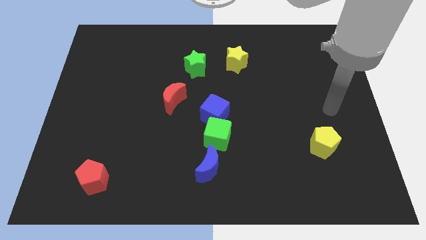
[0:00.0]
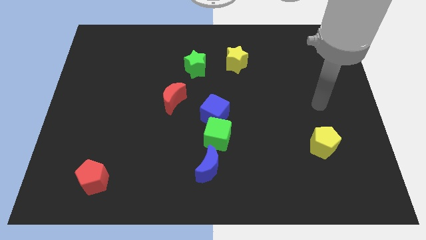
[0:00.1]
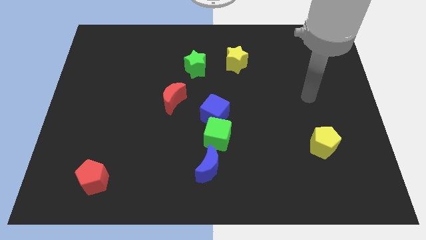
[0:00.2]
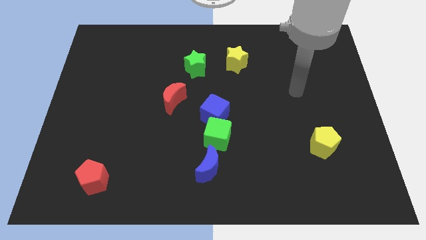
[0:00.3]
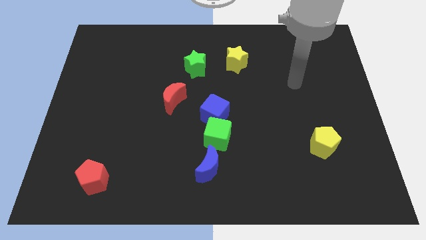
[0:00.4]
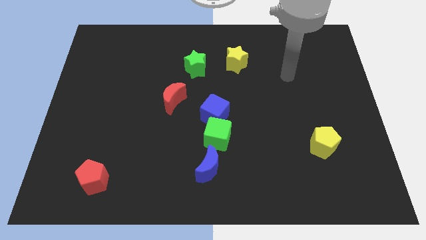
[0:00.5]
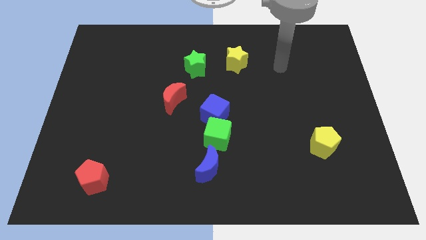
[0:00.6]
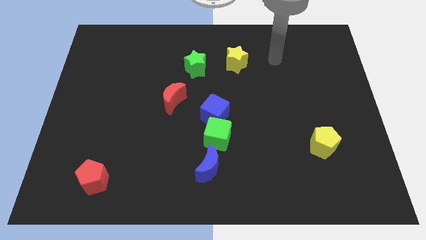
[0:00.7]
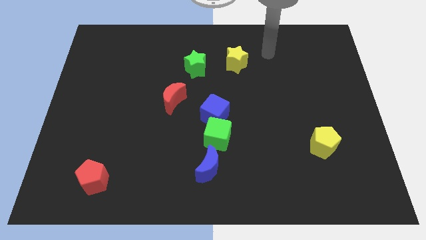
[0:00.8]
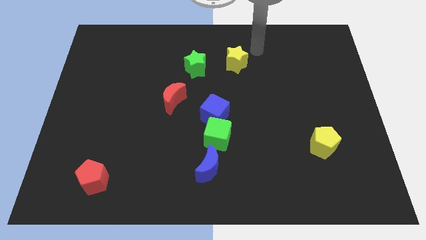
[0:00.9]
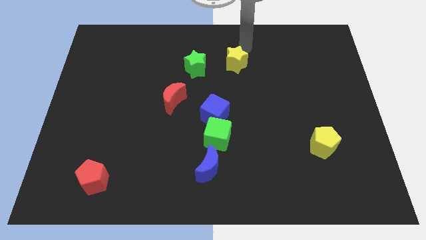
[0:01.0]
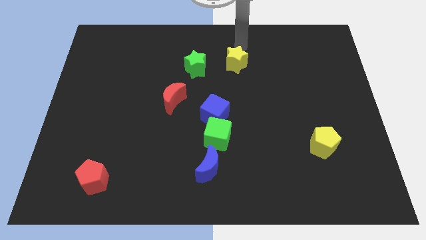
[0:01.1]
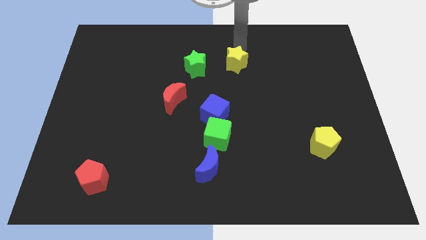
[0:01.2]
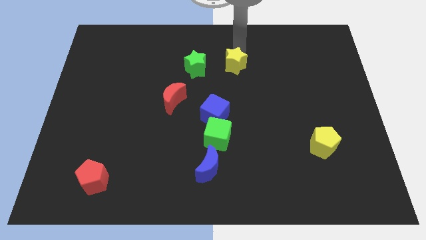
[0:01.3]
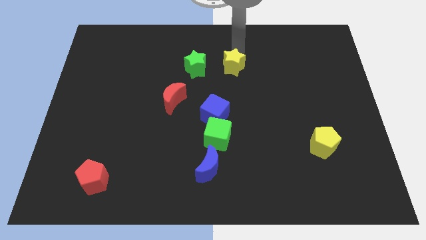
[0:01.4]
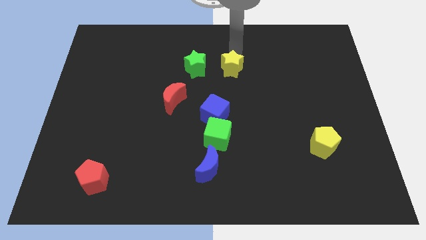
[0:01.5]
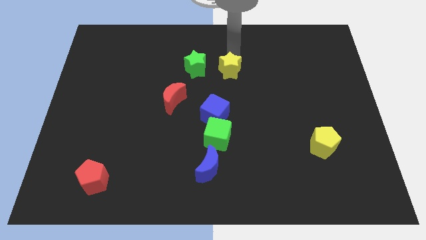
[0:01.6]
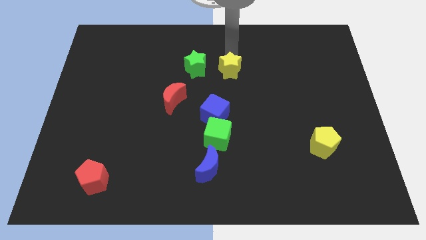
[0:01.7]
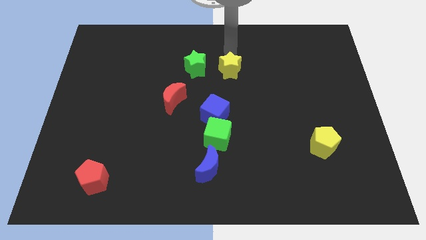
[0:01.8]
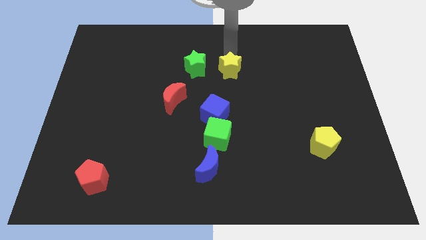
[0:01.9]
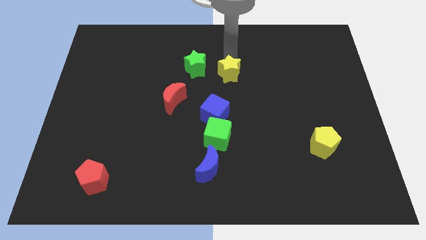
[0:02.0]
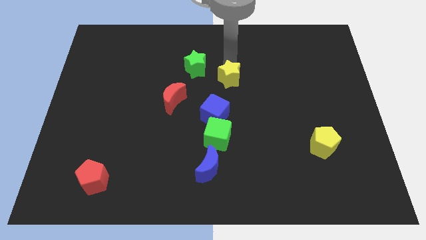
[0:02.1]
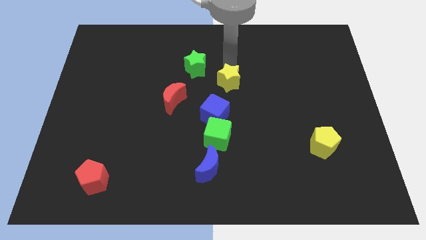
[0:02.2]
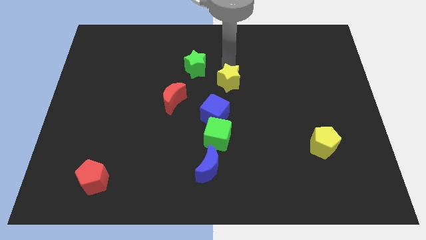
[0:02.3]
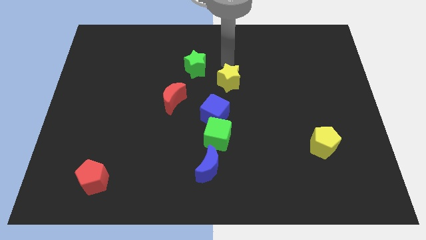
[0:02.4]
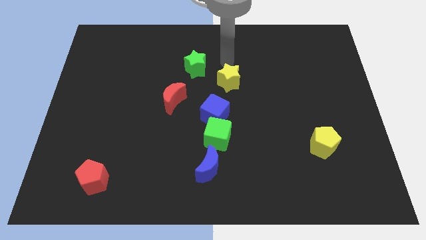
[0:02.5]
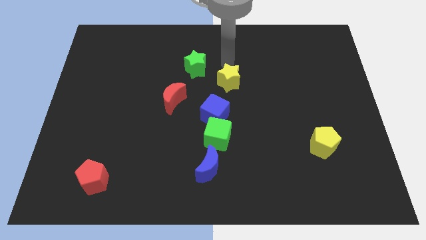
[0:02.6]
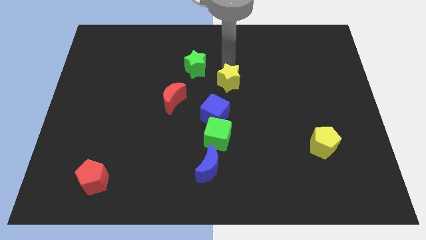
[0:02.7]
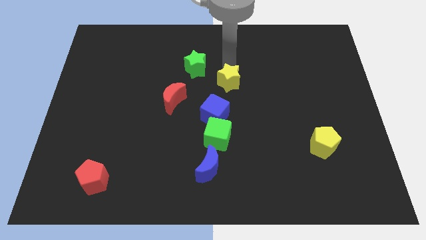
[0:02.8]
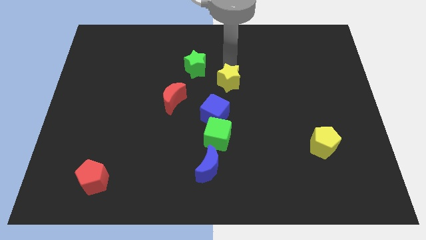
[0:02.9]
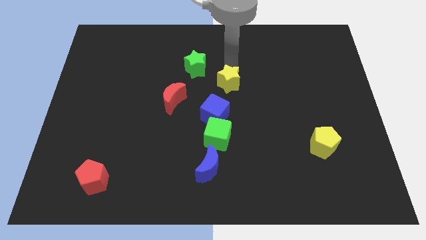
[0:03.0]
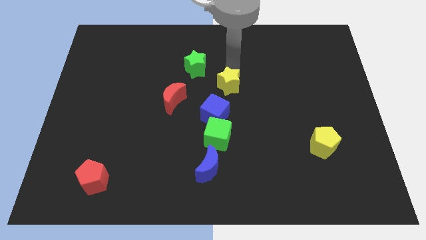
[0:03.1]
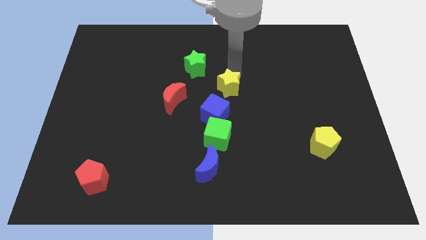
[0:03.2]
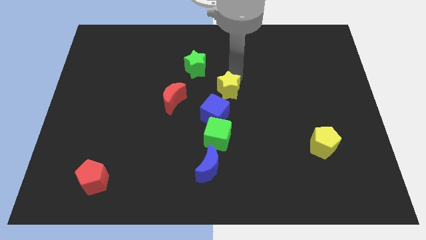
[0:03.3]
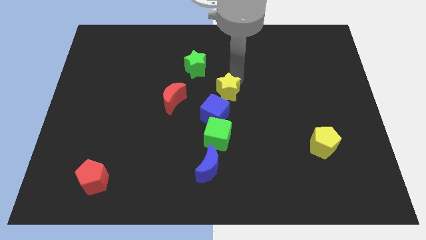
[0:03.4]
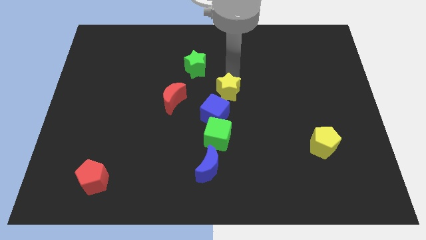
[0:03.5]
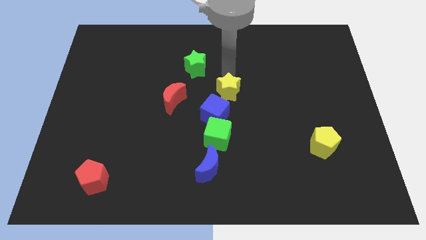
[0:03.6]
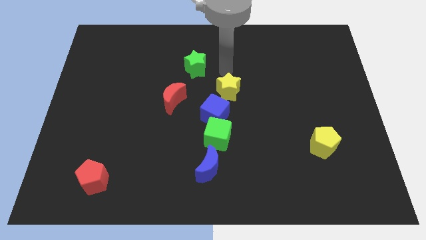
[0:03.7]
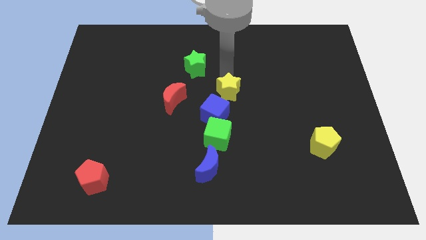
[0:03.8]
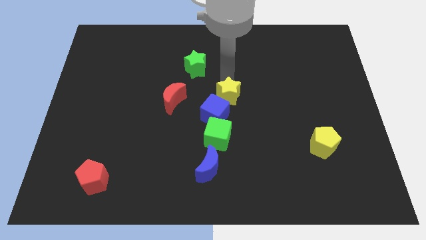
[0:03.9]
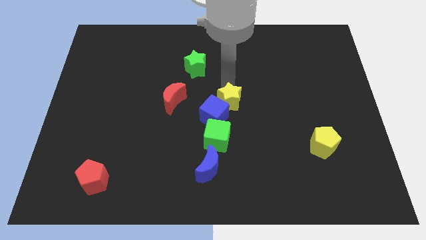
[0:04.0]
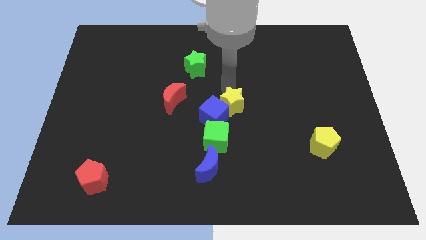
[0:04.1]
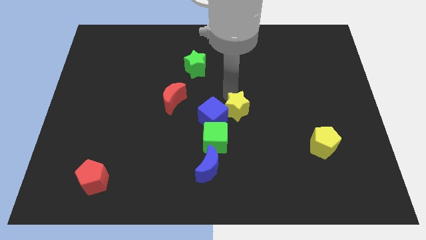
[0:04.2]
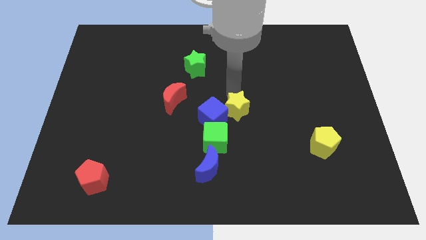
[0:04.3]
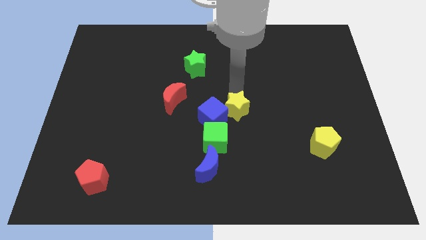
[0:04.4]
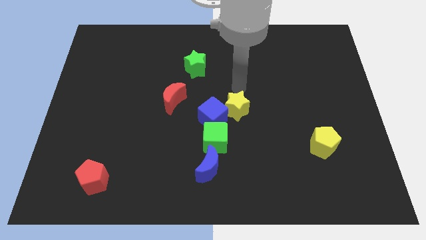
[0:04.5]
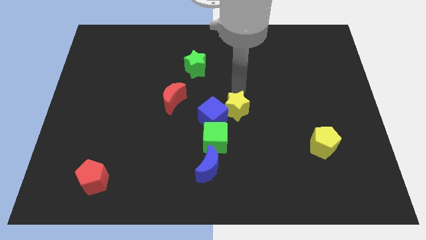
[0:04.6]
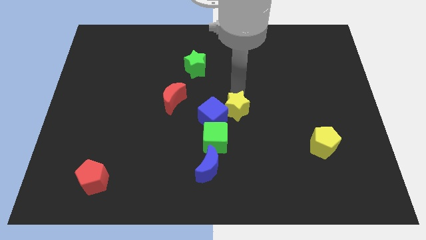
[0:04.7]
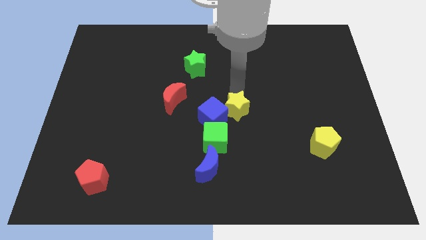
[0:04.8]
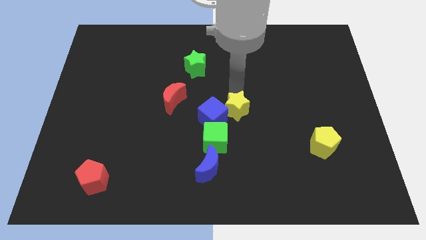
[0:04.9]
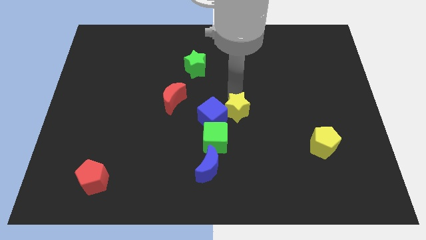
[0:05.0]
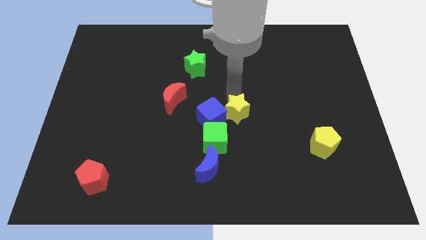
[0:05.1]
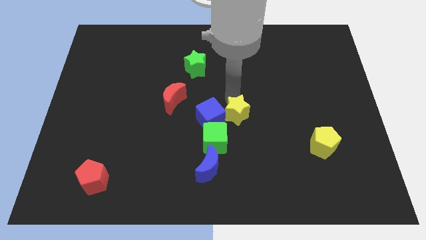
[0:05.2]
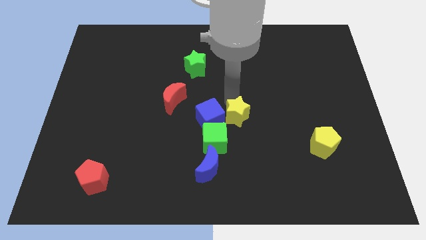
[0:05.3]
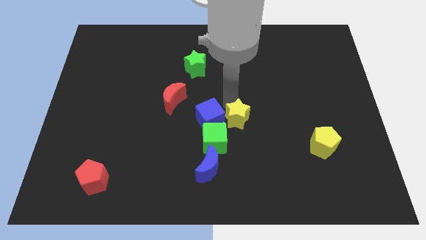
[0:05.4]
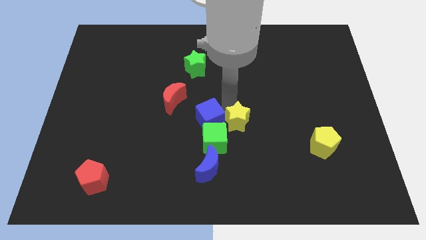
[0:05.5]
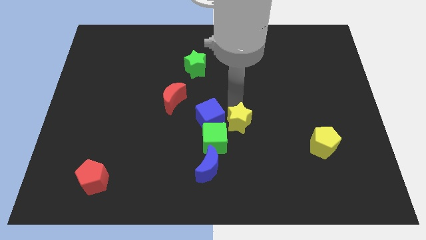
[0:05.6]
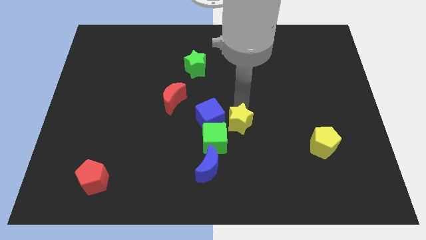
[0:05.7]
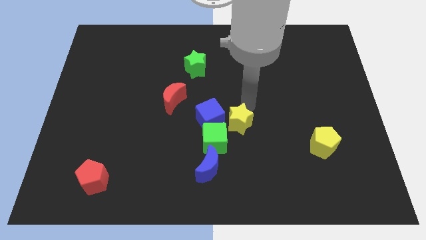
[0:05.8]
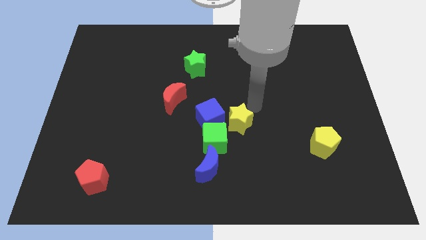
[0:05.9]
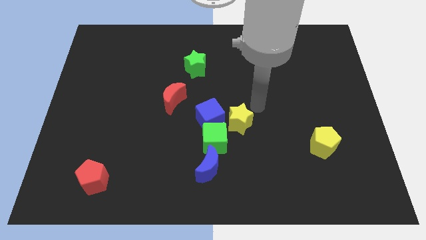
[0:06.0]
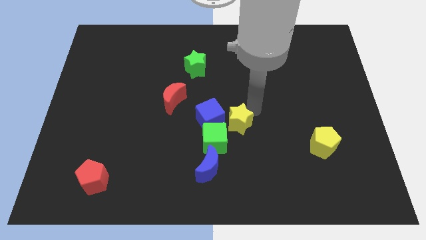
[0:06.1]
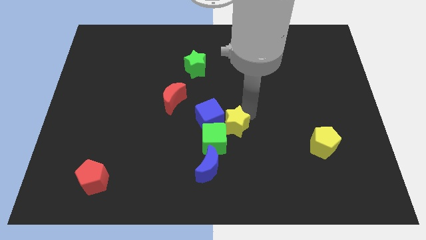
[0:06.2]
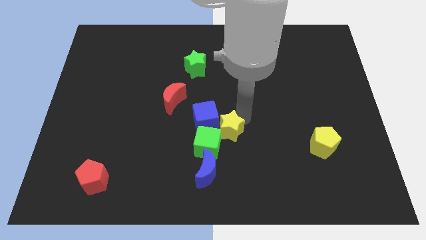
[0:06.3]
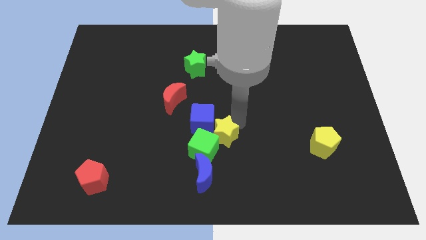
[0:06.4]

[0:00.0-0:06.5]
move the yellow star close to the green cube

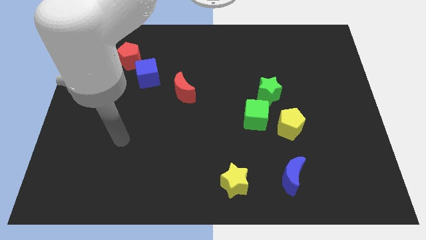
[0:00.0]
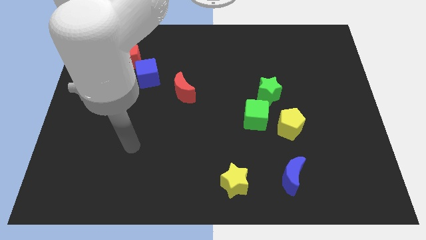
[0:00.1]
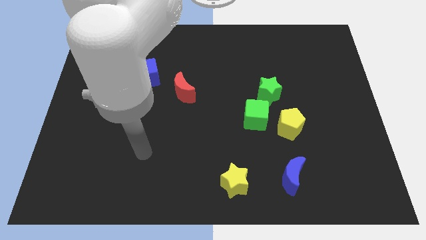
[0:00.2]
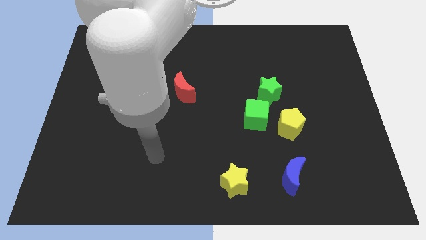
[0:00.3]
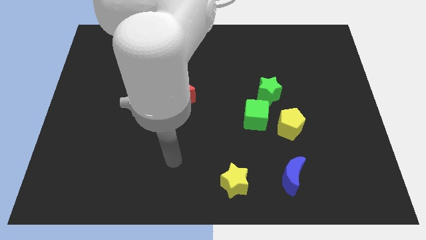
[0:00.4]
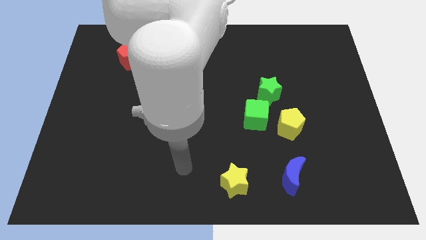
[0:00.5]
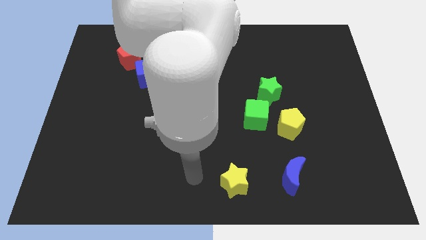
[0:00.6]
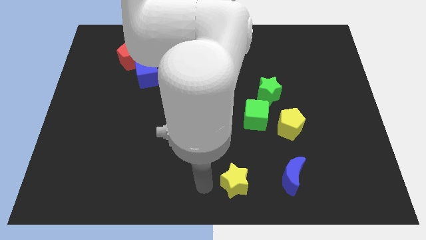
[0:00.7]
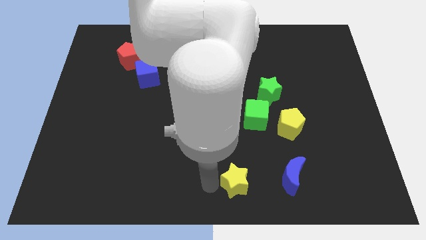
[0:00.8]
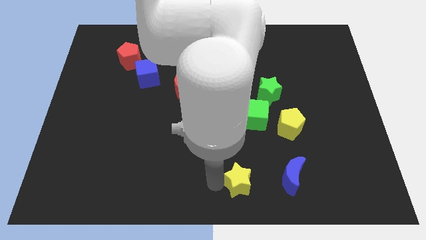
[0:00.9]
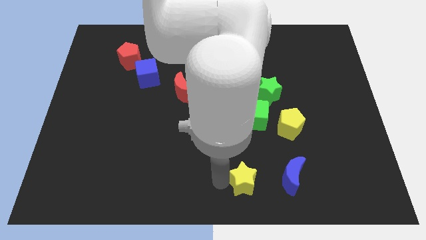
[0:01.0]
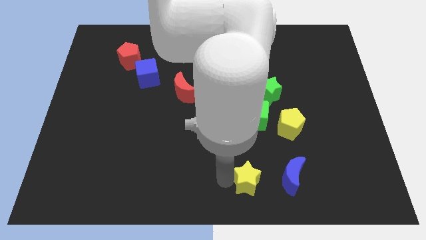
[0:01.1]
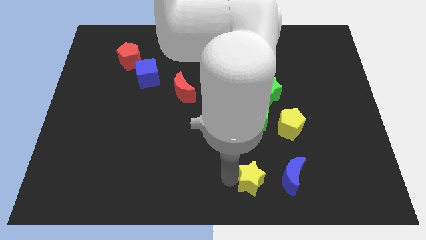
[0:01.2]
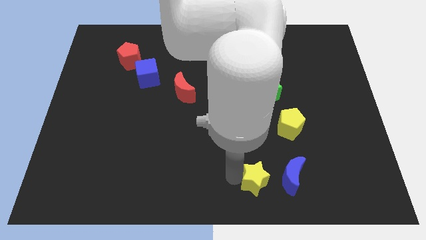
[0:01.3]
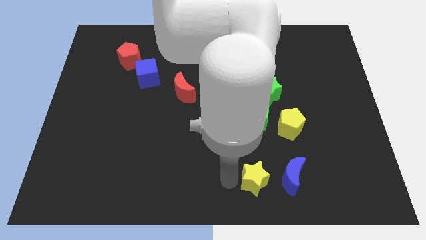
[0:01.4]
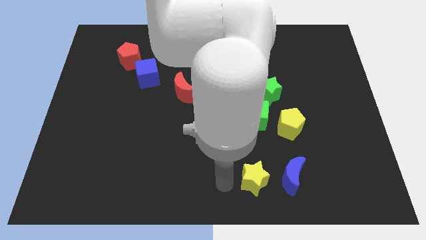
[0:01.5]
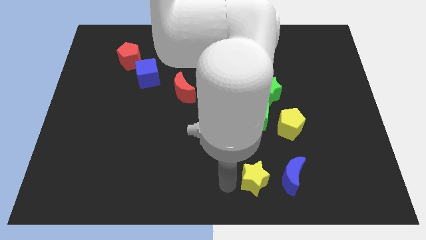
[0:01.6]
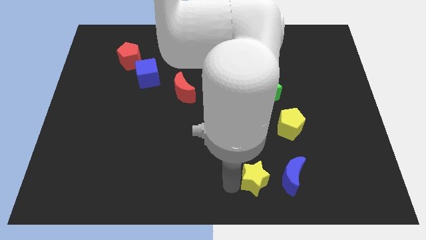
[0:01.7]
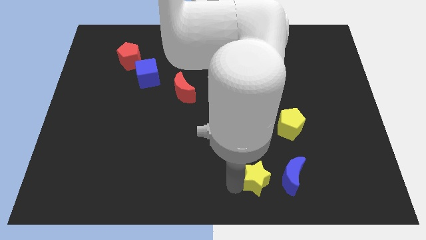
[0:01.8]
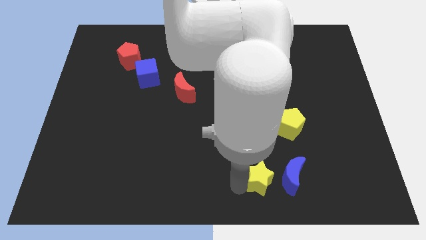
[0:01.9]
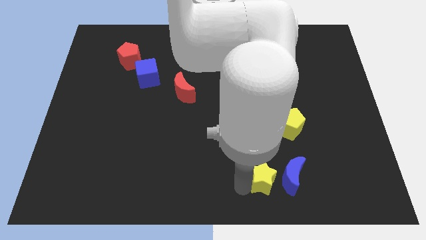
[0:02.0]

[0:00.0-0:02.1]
slide the yellow star close to the blue moon
